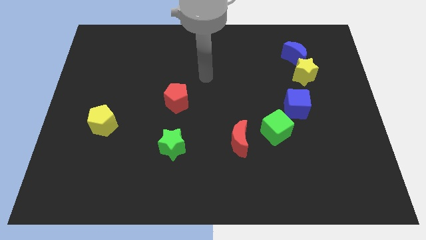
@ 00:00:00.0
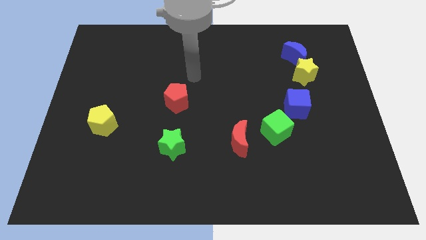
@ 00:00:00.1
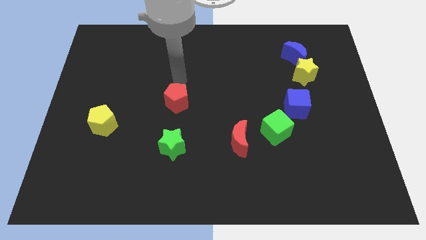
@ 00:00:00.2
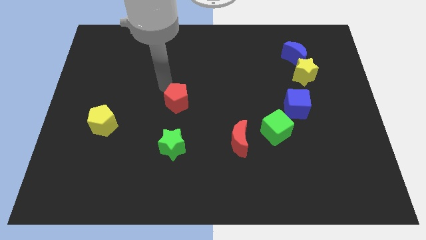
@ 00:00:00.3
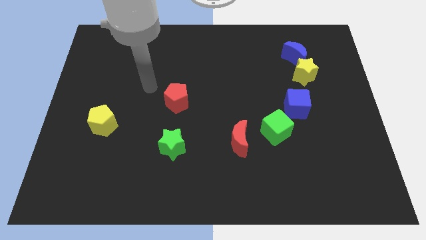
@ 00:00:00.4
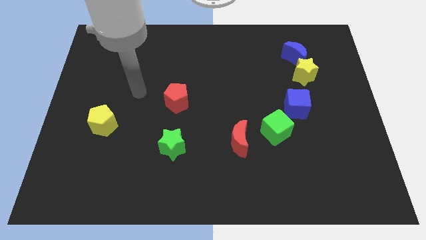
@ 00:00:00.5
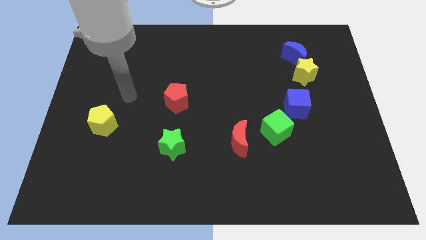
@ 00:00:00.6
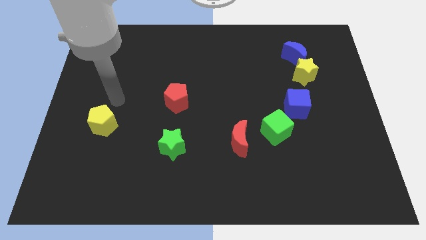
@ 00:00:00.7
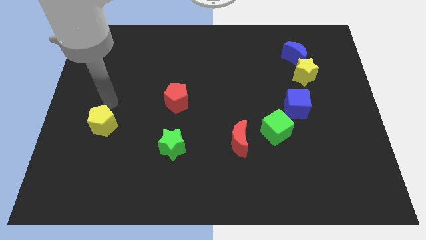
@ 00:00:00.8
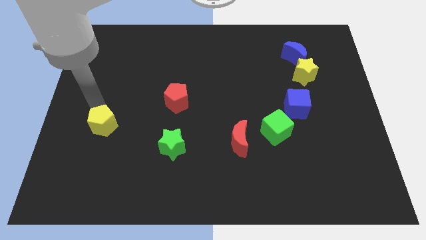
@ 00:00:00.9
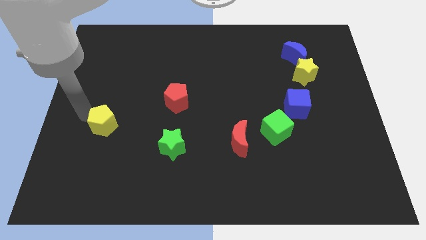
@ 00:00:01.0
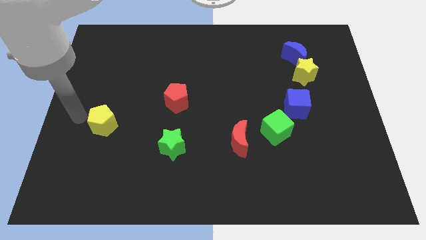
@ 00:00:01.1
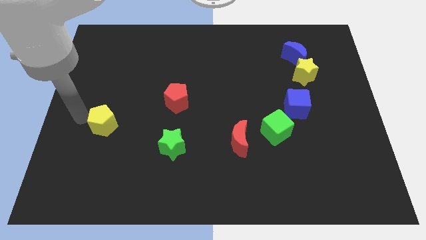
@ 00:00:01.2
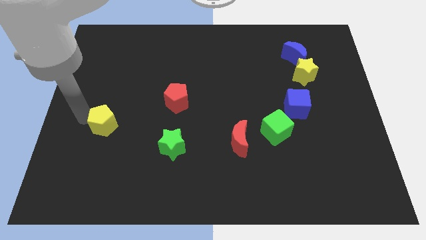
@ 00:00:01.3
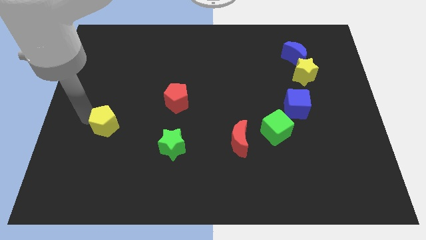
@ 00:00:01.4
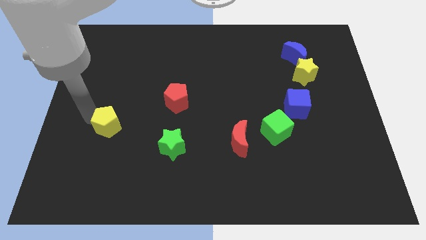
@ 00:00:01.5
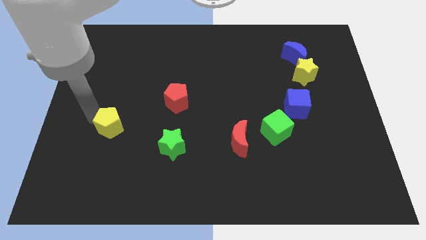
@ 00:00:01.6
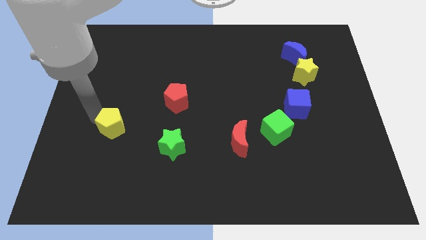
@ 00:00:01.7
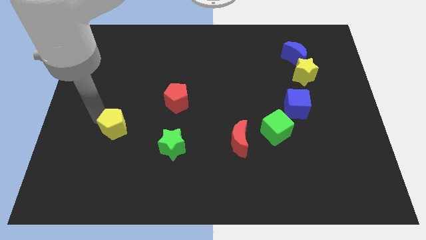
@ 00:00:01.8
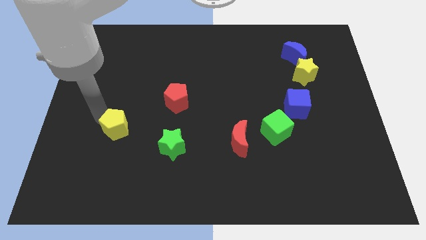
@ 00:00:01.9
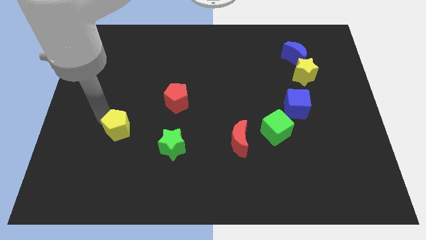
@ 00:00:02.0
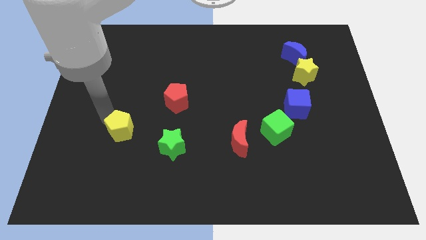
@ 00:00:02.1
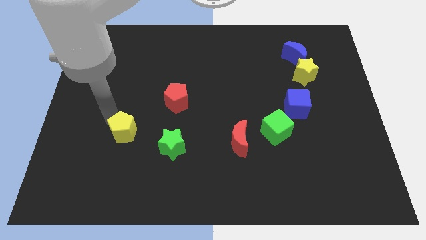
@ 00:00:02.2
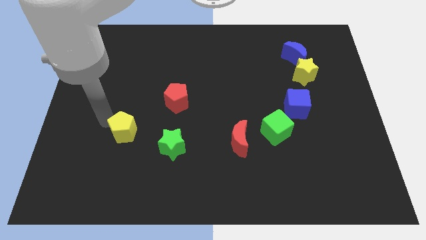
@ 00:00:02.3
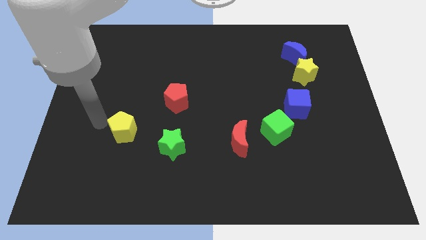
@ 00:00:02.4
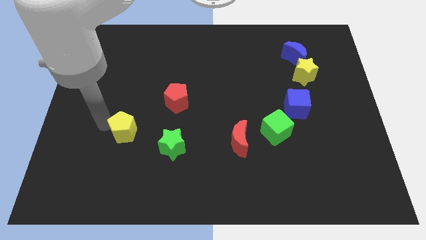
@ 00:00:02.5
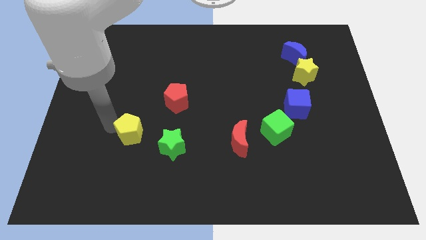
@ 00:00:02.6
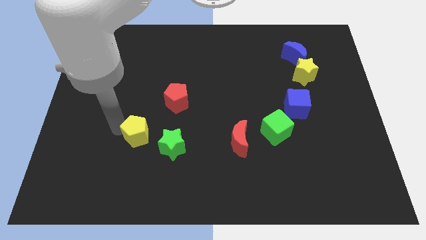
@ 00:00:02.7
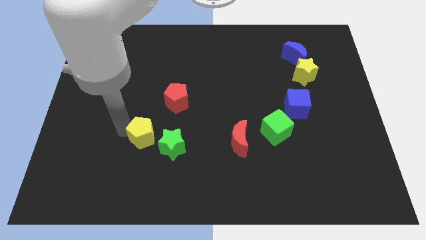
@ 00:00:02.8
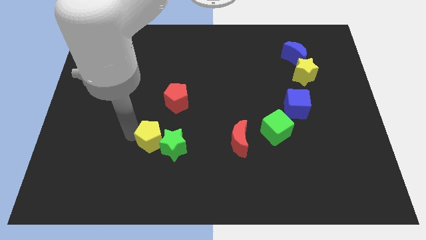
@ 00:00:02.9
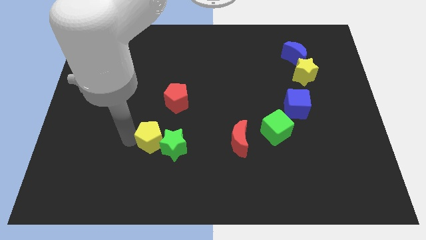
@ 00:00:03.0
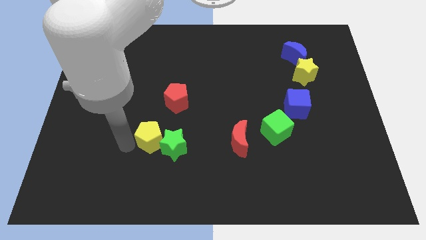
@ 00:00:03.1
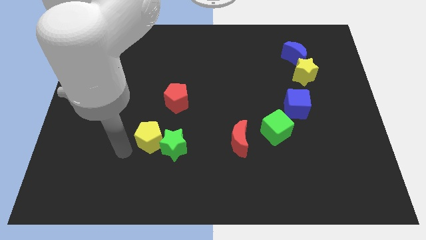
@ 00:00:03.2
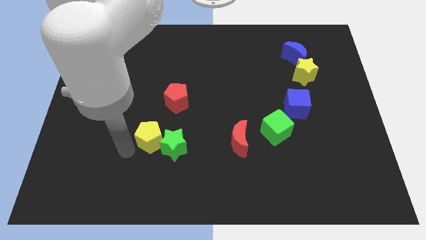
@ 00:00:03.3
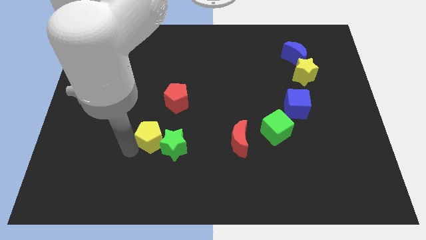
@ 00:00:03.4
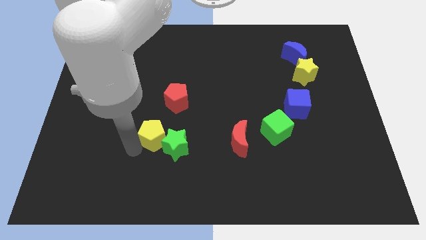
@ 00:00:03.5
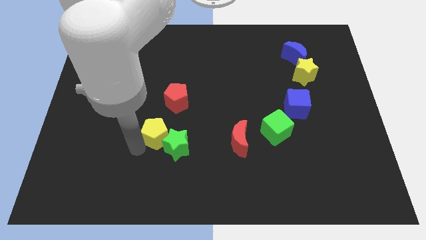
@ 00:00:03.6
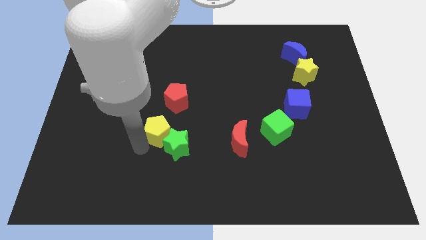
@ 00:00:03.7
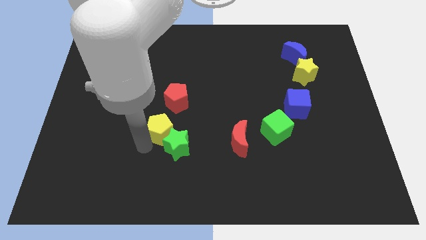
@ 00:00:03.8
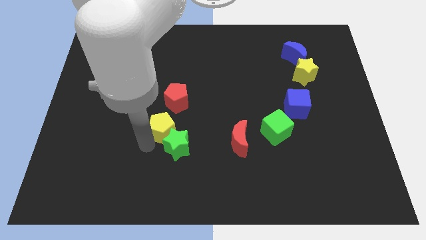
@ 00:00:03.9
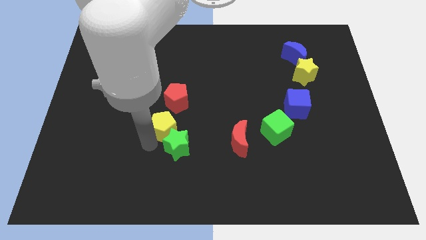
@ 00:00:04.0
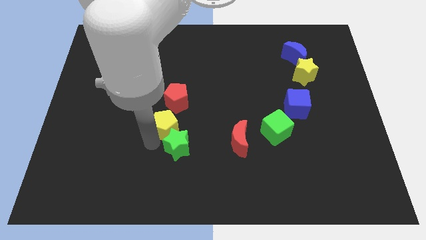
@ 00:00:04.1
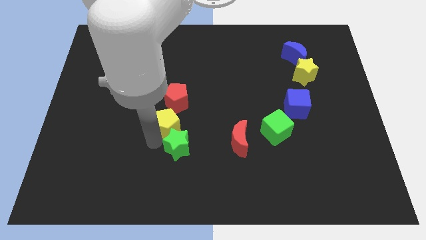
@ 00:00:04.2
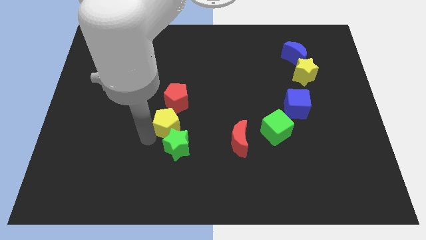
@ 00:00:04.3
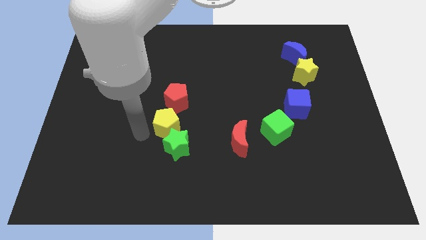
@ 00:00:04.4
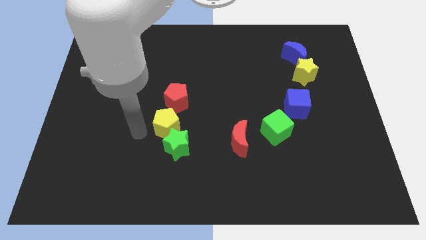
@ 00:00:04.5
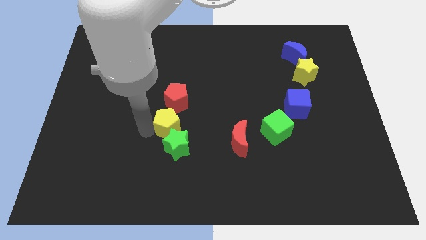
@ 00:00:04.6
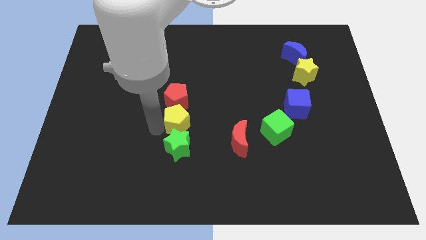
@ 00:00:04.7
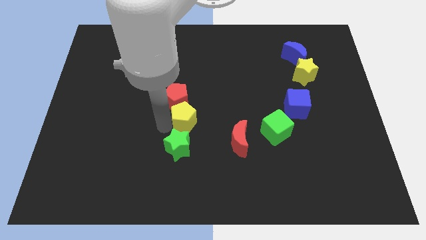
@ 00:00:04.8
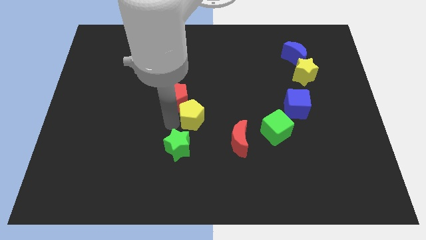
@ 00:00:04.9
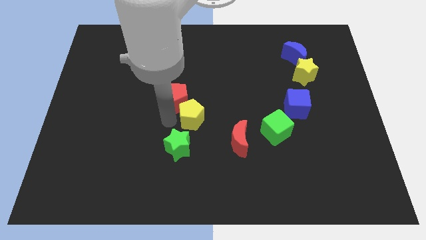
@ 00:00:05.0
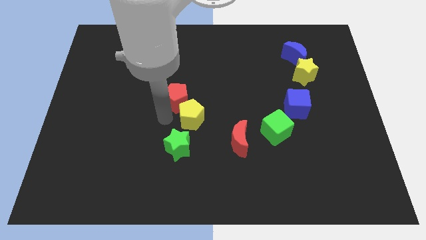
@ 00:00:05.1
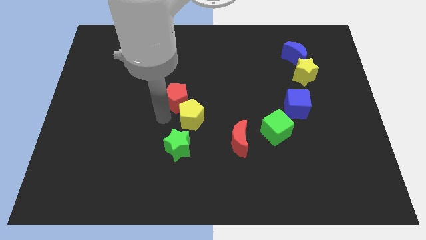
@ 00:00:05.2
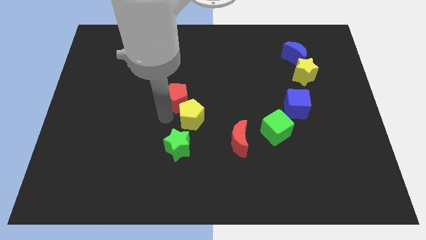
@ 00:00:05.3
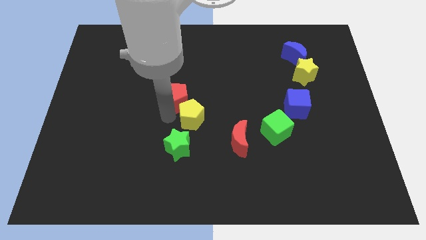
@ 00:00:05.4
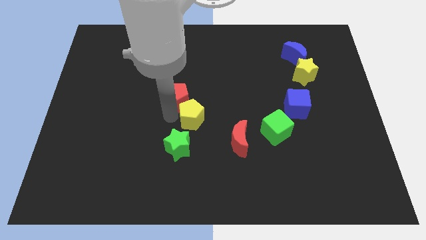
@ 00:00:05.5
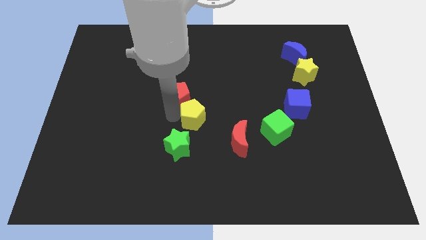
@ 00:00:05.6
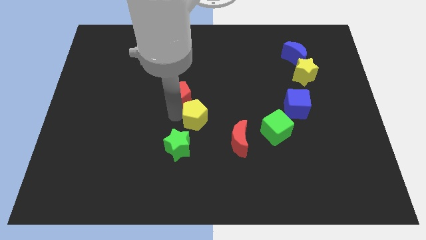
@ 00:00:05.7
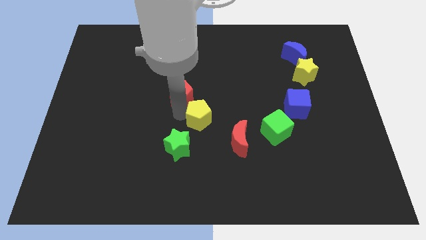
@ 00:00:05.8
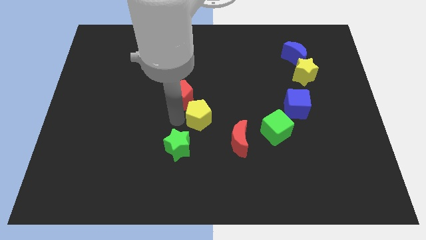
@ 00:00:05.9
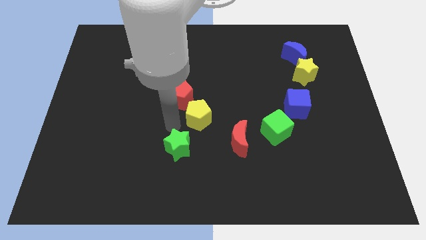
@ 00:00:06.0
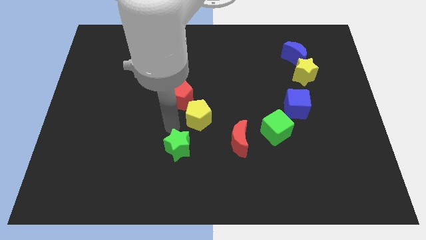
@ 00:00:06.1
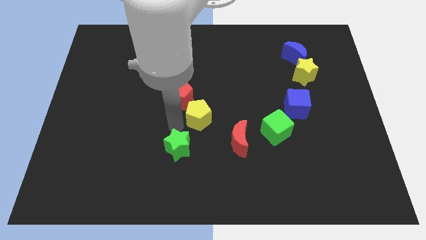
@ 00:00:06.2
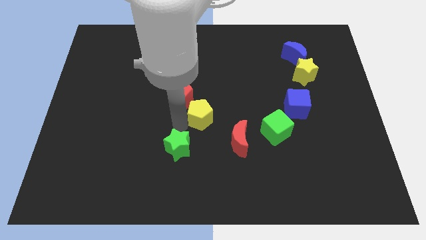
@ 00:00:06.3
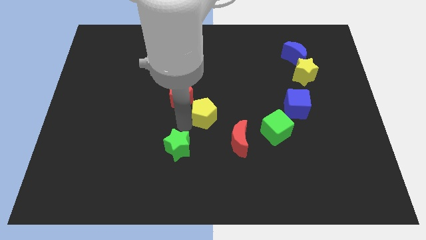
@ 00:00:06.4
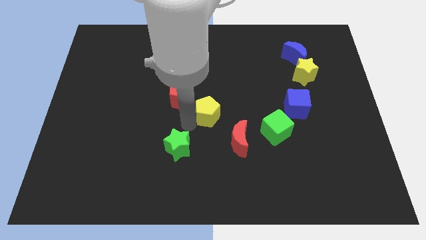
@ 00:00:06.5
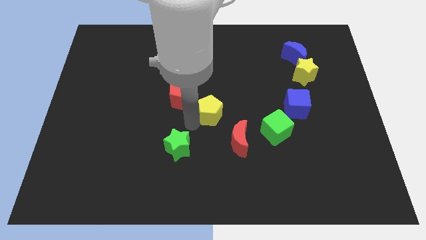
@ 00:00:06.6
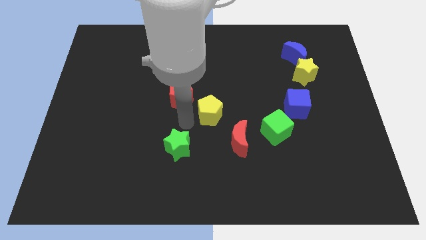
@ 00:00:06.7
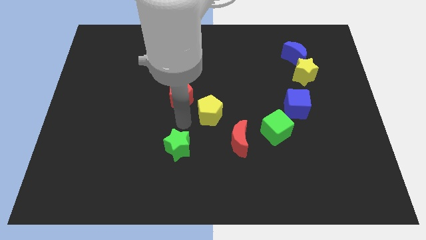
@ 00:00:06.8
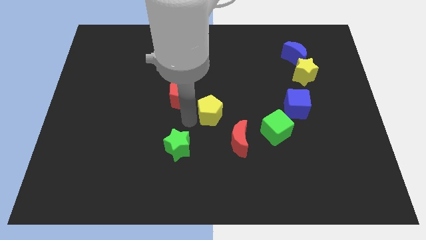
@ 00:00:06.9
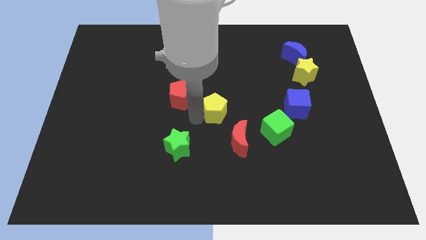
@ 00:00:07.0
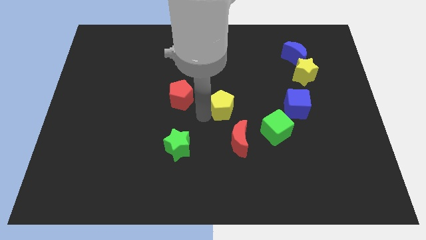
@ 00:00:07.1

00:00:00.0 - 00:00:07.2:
push the yellow pentagon to the top side of the red moon

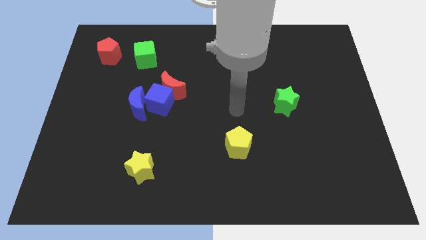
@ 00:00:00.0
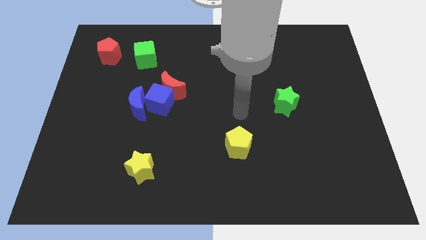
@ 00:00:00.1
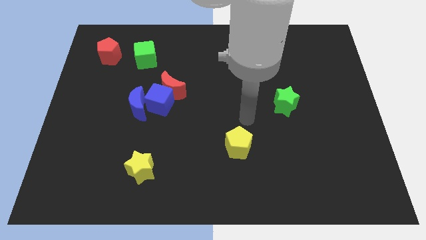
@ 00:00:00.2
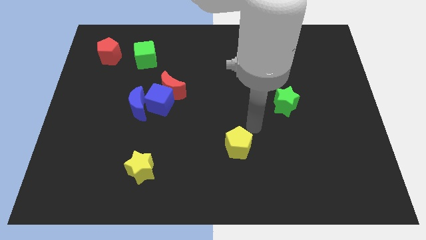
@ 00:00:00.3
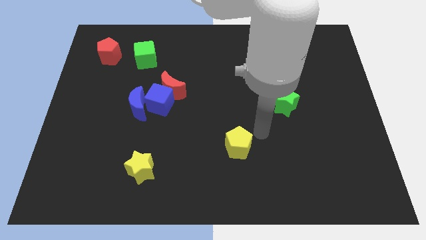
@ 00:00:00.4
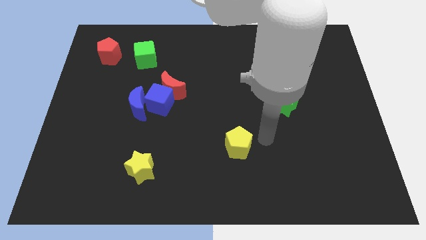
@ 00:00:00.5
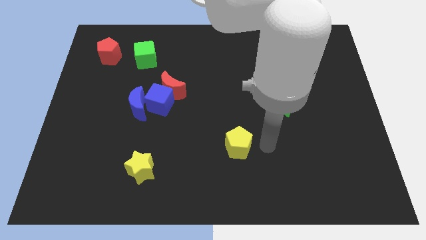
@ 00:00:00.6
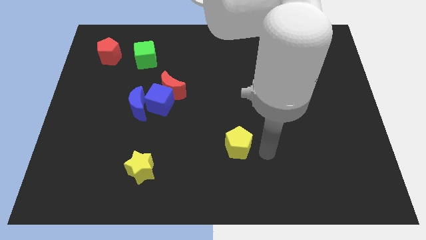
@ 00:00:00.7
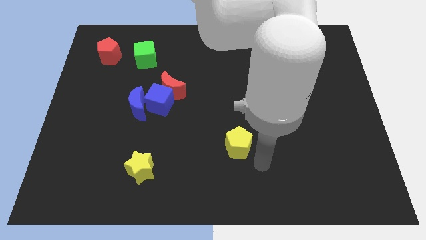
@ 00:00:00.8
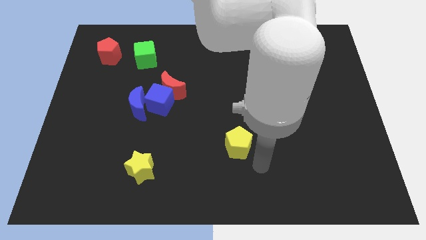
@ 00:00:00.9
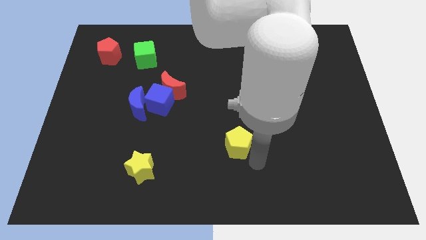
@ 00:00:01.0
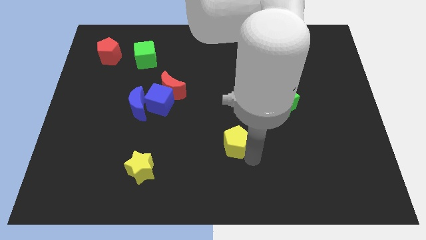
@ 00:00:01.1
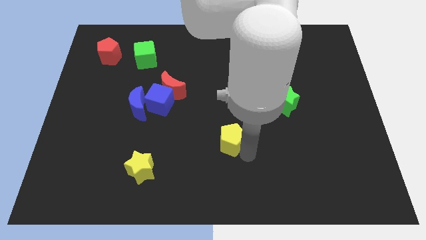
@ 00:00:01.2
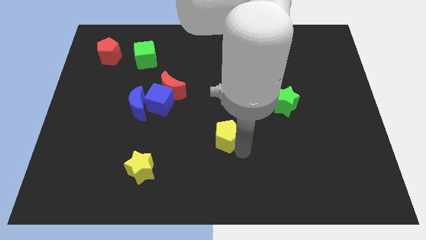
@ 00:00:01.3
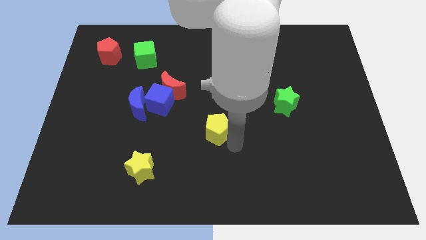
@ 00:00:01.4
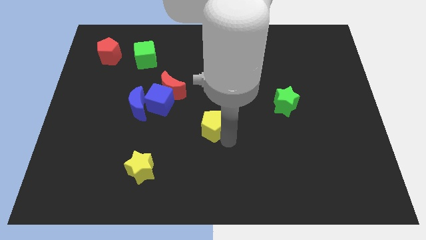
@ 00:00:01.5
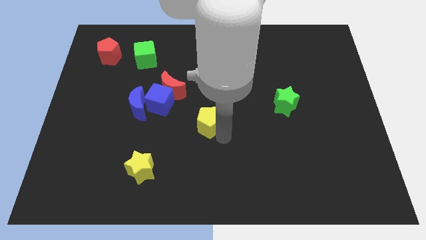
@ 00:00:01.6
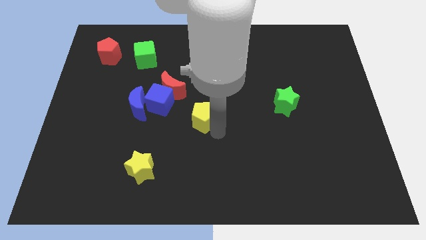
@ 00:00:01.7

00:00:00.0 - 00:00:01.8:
slide the yellow pentagon diagonally down and to the right of the red moon
